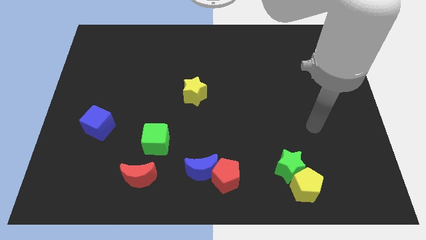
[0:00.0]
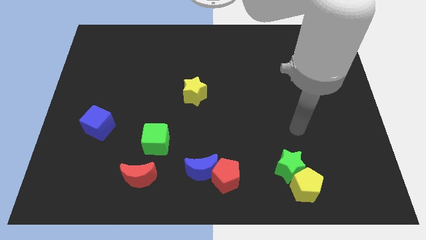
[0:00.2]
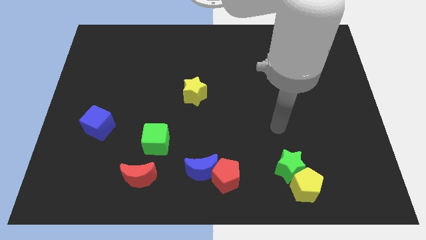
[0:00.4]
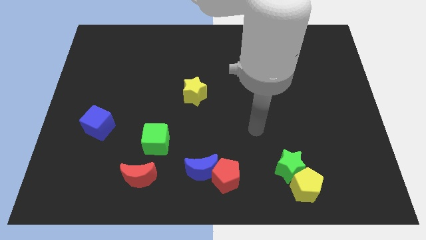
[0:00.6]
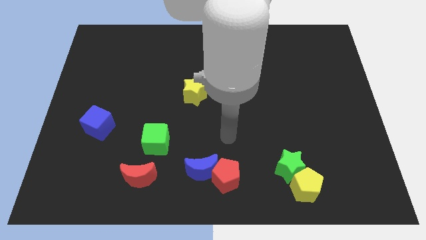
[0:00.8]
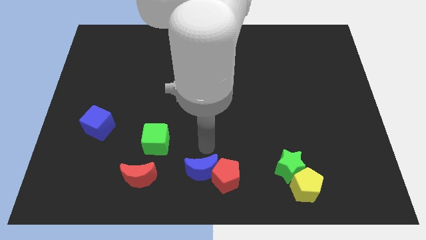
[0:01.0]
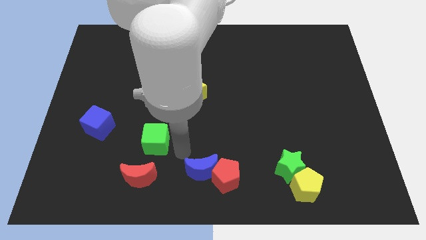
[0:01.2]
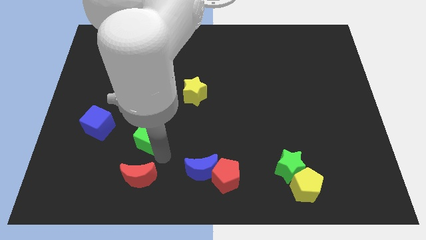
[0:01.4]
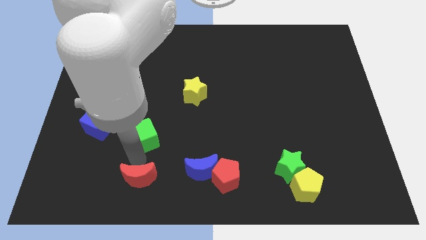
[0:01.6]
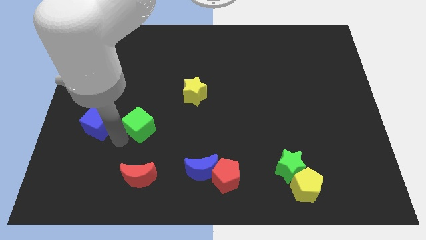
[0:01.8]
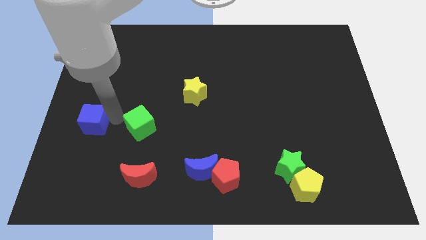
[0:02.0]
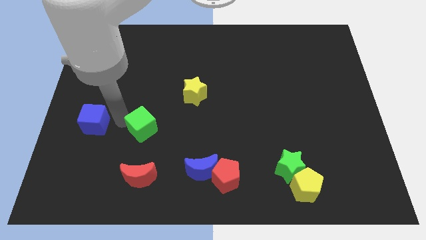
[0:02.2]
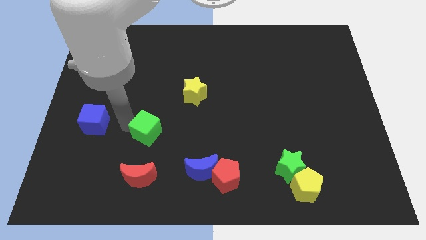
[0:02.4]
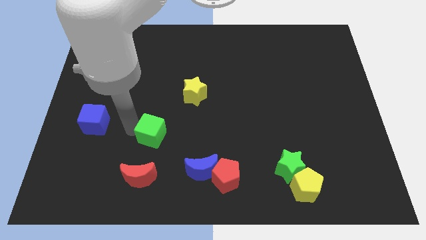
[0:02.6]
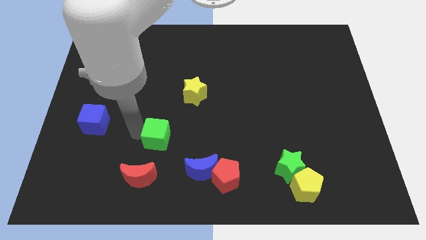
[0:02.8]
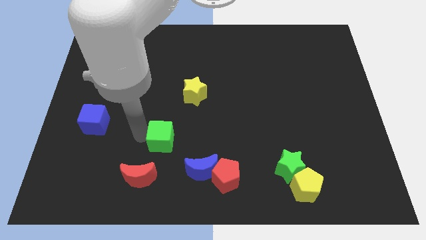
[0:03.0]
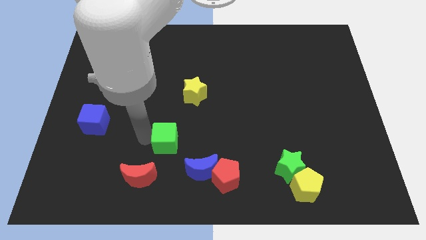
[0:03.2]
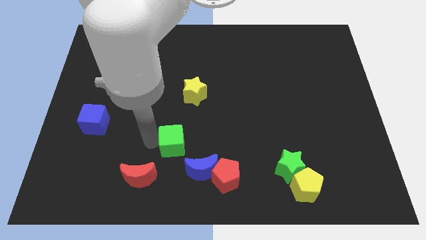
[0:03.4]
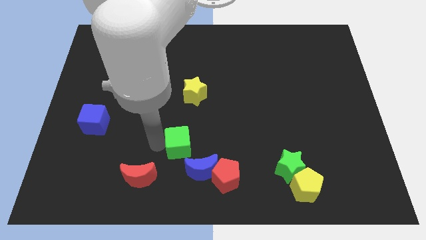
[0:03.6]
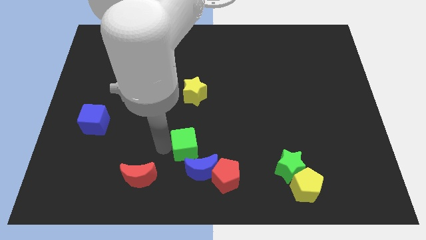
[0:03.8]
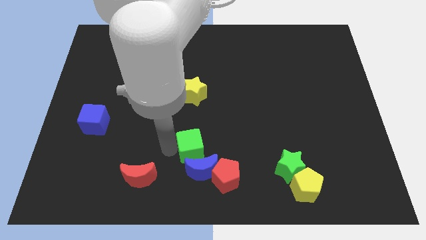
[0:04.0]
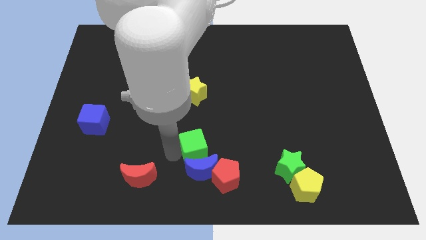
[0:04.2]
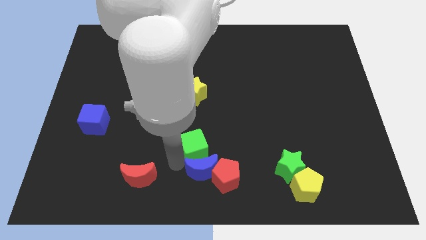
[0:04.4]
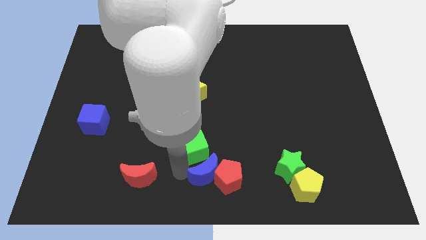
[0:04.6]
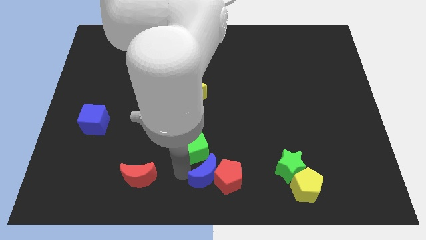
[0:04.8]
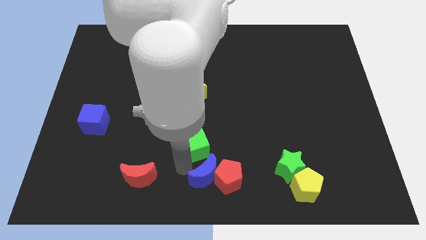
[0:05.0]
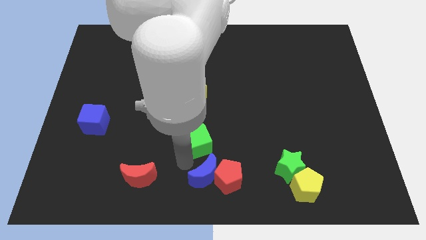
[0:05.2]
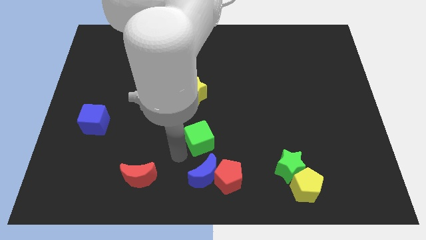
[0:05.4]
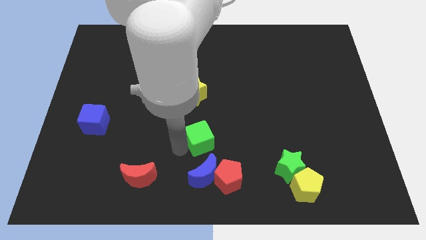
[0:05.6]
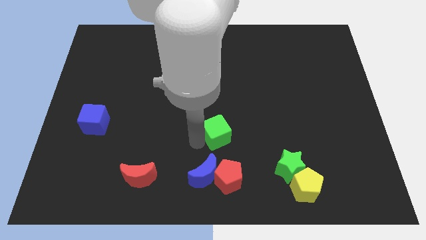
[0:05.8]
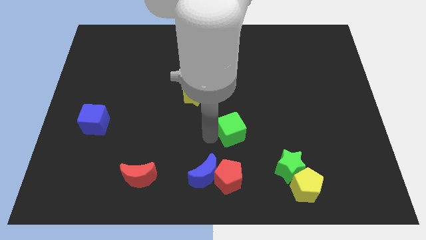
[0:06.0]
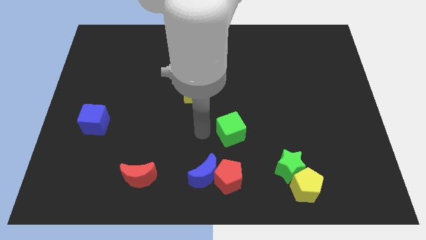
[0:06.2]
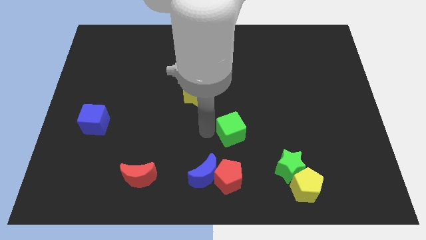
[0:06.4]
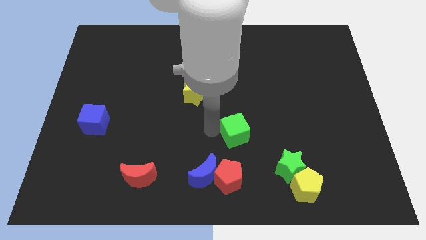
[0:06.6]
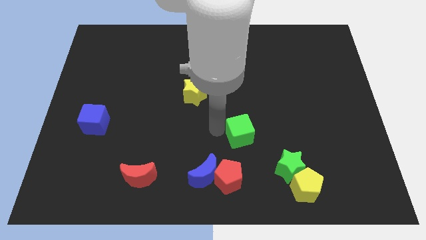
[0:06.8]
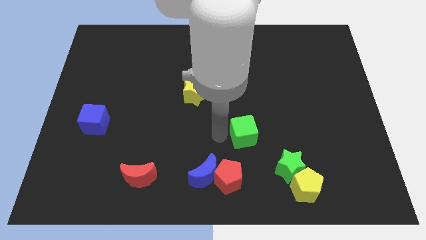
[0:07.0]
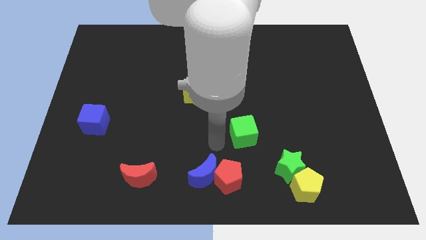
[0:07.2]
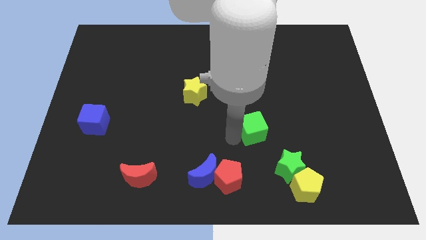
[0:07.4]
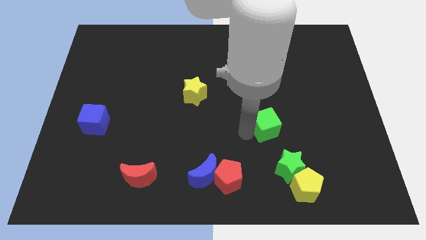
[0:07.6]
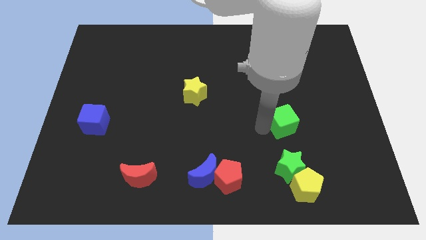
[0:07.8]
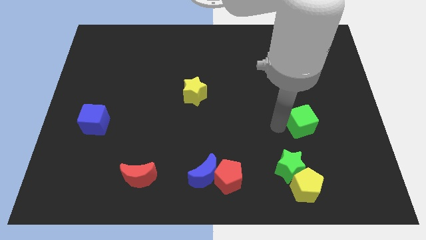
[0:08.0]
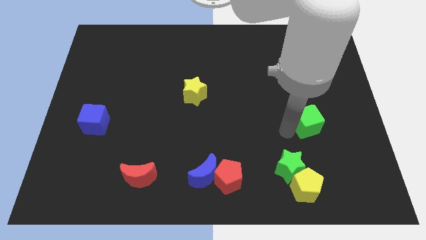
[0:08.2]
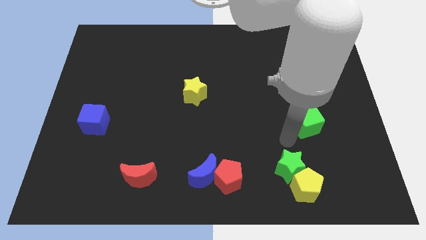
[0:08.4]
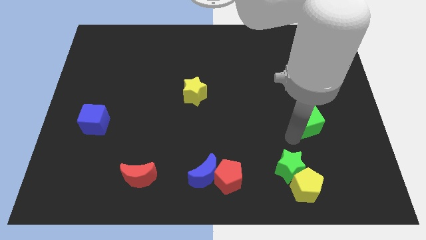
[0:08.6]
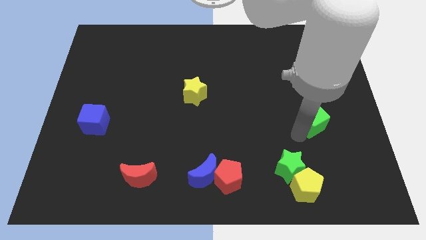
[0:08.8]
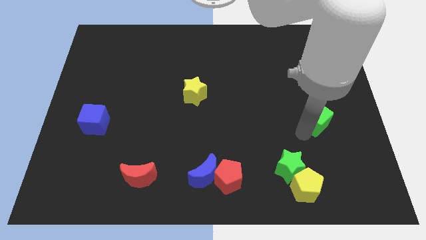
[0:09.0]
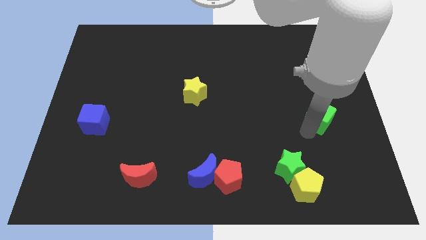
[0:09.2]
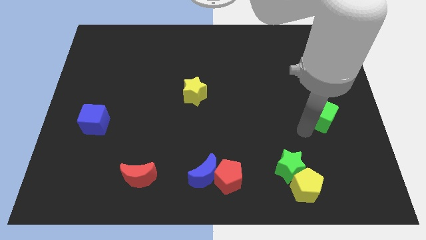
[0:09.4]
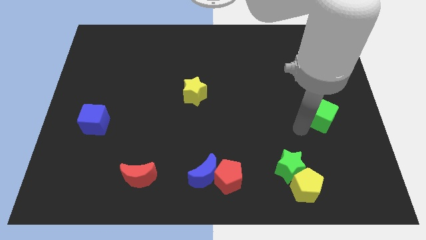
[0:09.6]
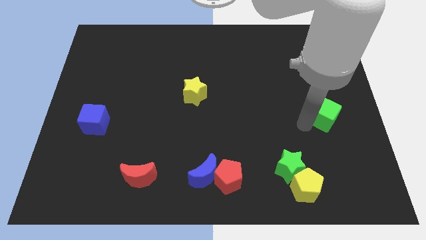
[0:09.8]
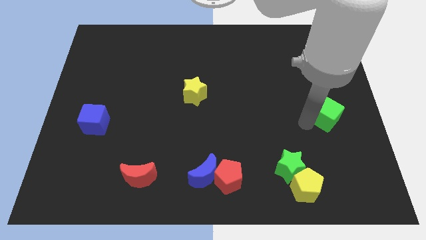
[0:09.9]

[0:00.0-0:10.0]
slide the green cube to the right side
